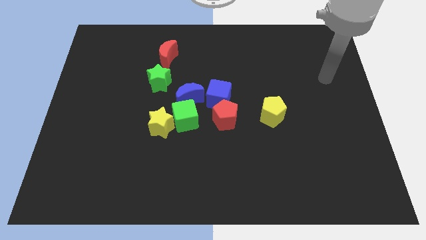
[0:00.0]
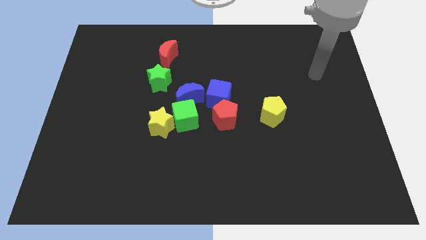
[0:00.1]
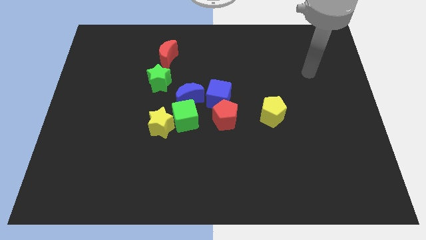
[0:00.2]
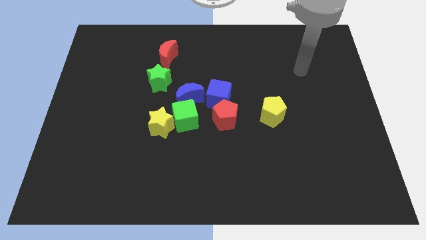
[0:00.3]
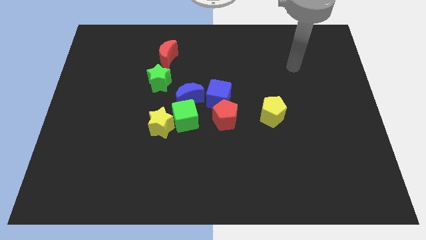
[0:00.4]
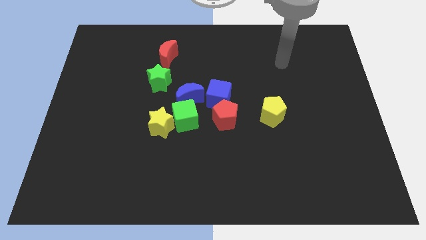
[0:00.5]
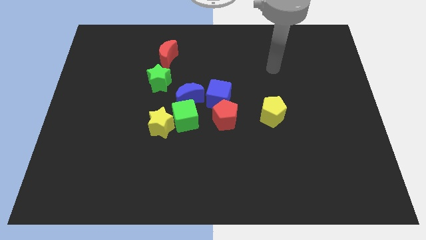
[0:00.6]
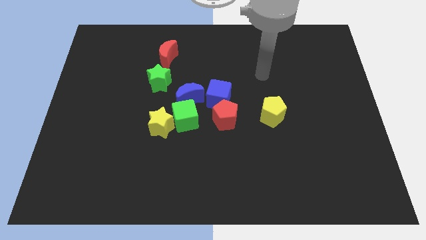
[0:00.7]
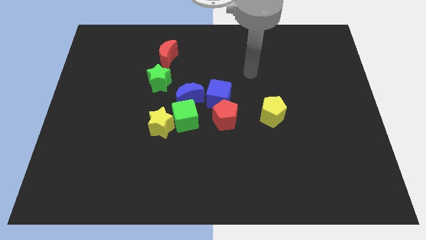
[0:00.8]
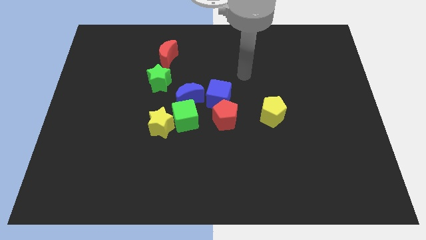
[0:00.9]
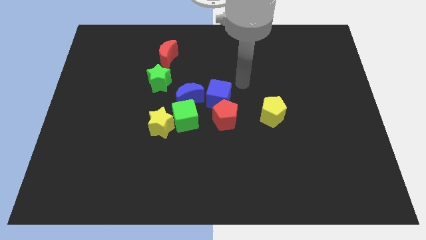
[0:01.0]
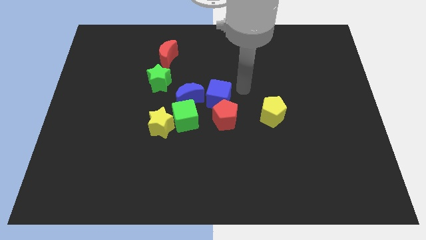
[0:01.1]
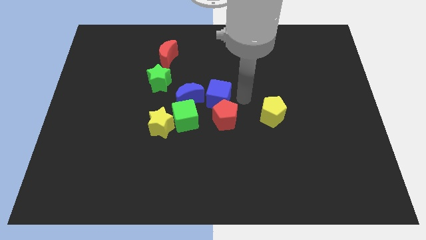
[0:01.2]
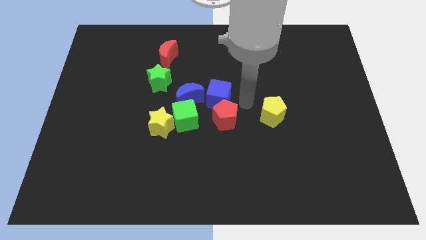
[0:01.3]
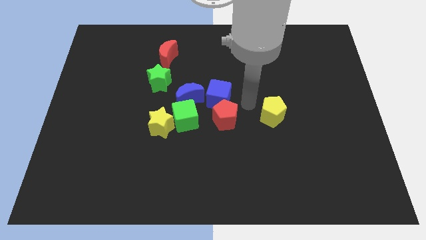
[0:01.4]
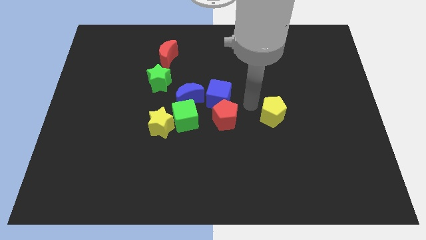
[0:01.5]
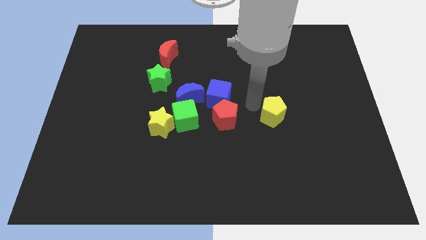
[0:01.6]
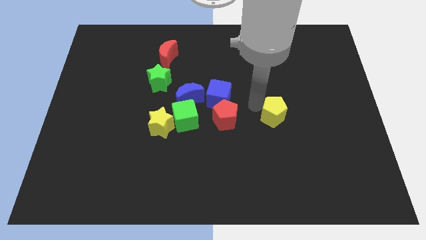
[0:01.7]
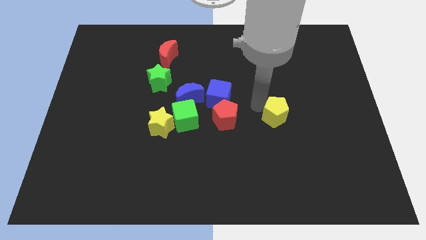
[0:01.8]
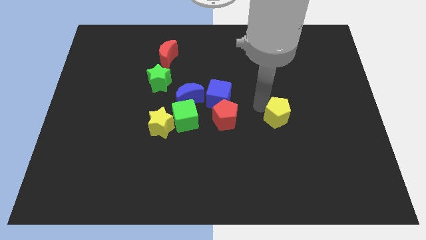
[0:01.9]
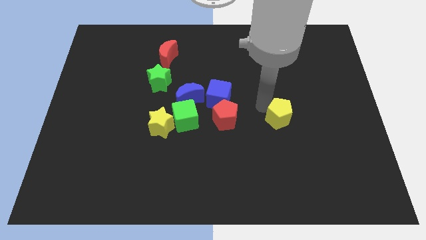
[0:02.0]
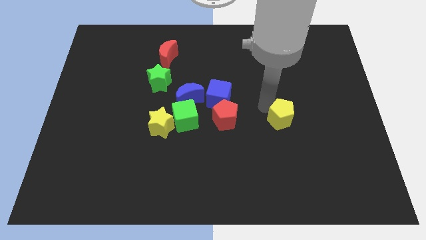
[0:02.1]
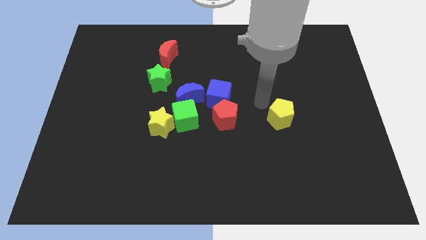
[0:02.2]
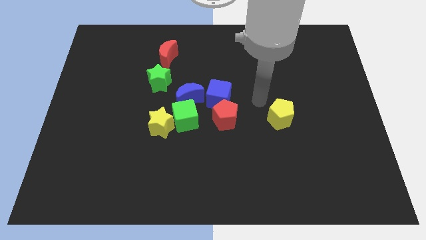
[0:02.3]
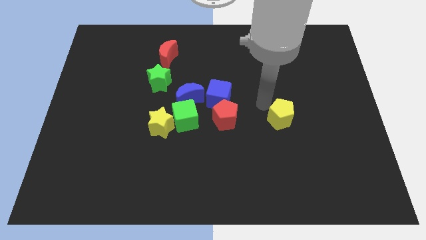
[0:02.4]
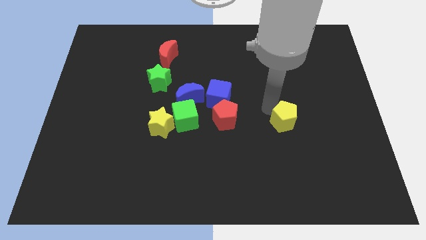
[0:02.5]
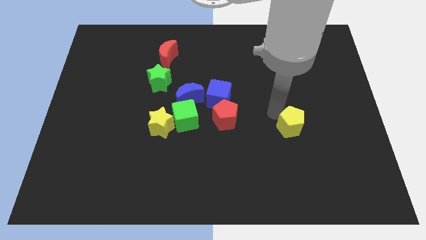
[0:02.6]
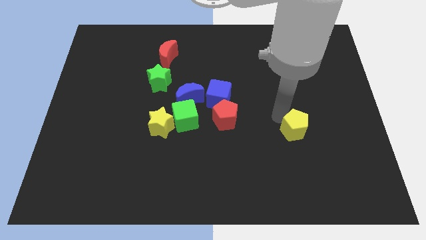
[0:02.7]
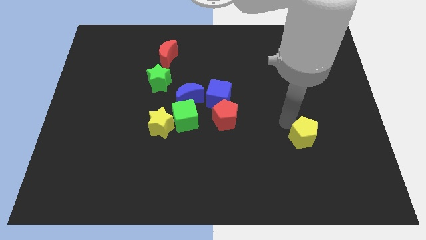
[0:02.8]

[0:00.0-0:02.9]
slightly push the yellow pentagon downwards and then right

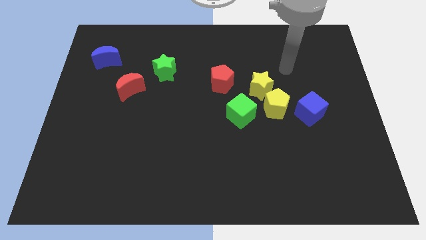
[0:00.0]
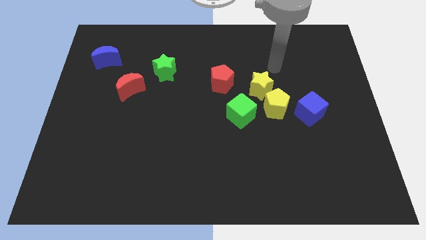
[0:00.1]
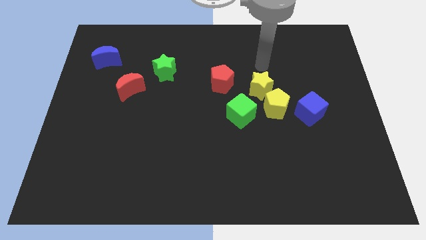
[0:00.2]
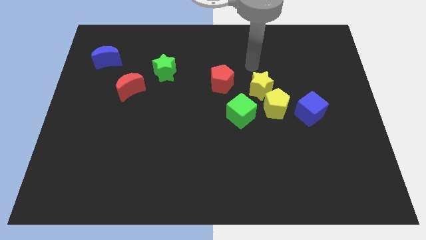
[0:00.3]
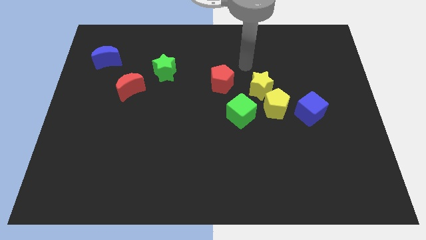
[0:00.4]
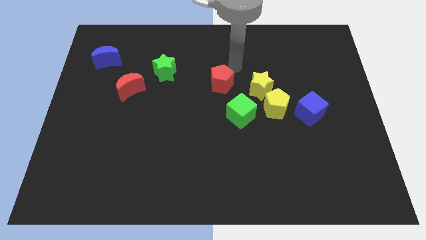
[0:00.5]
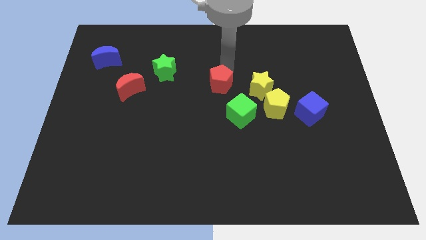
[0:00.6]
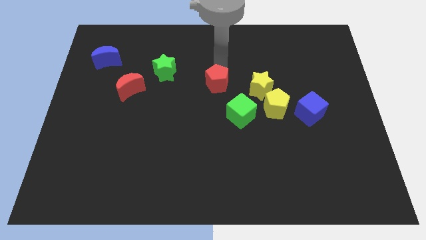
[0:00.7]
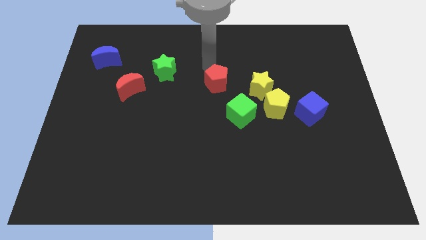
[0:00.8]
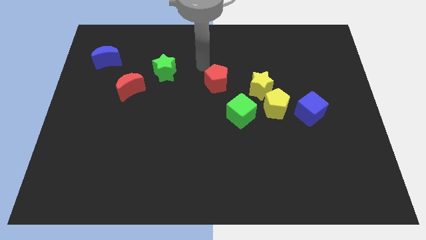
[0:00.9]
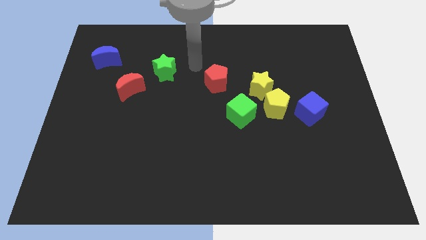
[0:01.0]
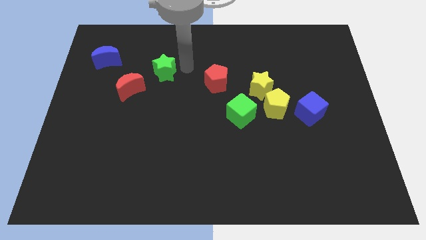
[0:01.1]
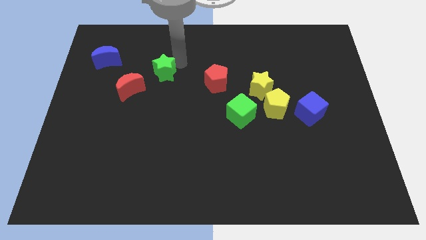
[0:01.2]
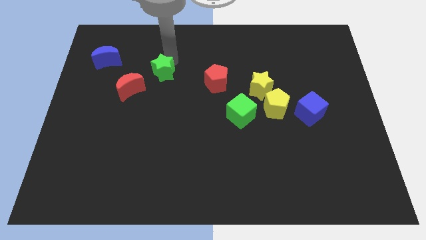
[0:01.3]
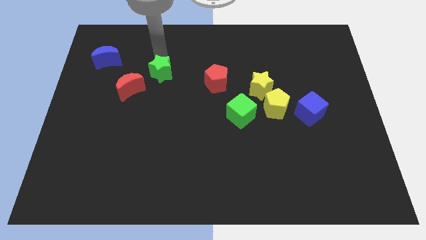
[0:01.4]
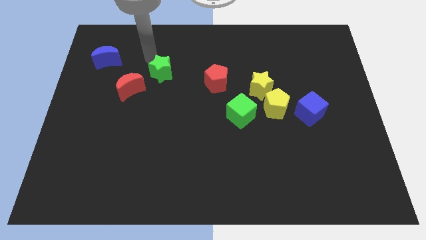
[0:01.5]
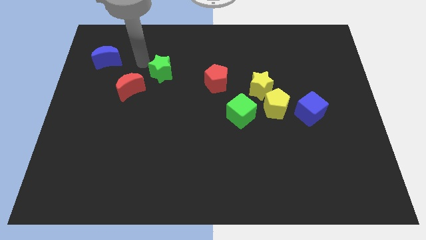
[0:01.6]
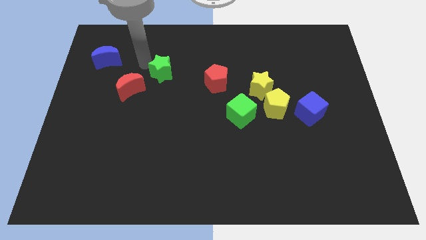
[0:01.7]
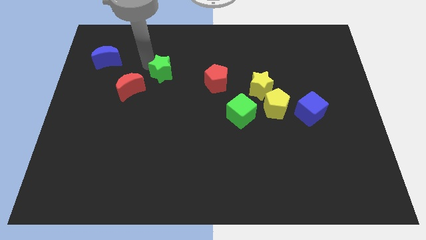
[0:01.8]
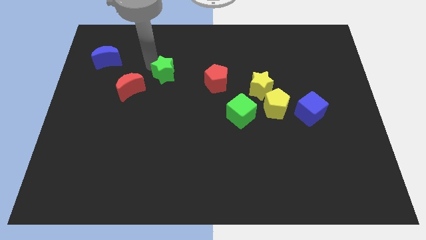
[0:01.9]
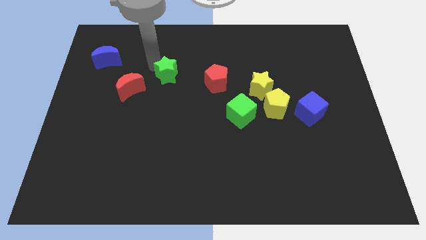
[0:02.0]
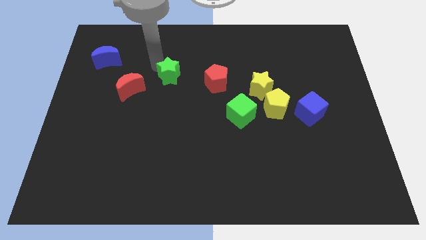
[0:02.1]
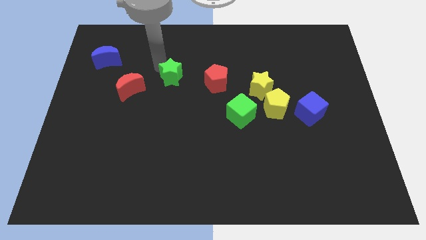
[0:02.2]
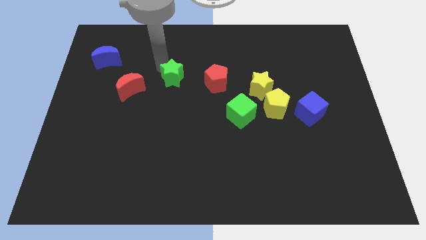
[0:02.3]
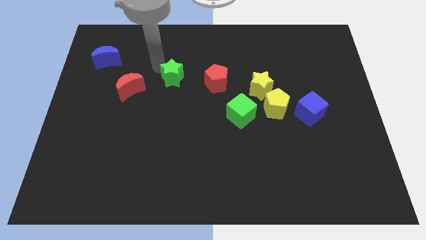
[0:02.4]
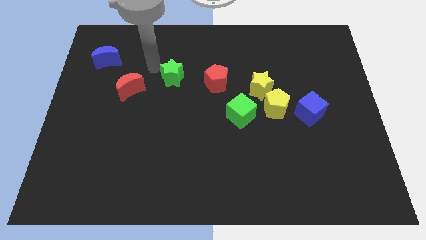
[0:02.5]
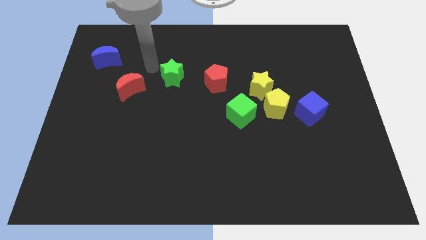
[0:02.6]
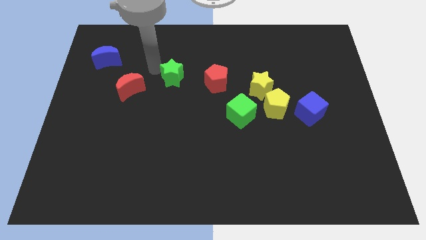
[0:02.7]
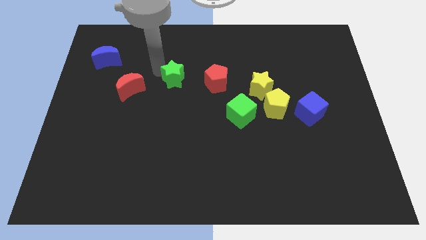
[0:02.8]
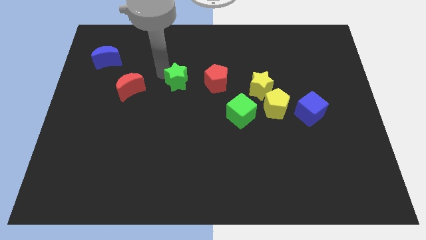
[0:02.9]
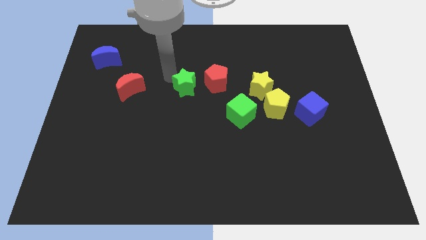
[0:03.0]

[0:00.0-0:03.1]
slide the green star slightly down and then right

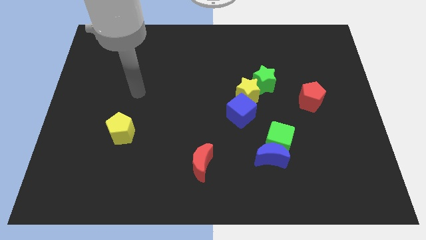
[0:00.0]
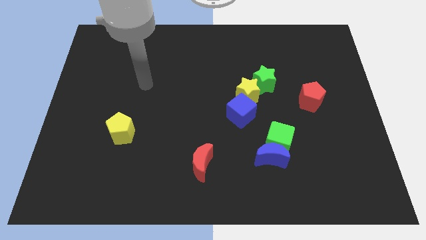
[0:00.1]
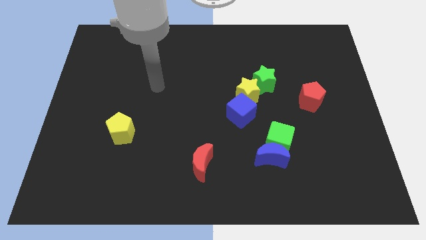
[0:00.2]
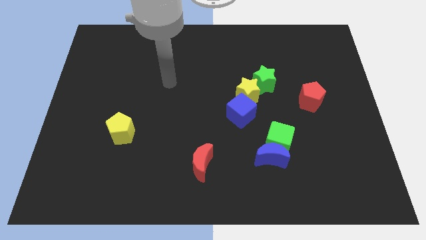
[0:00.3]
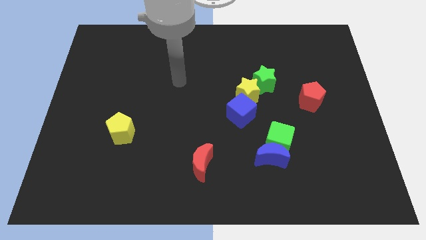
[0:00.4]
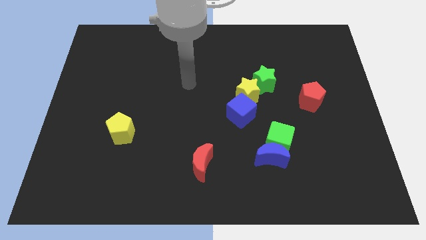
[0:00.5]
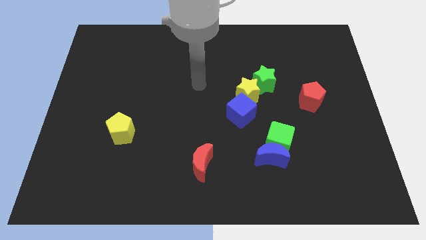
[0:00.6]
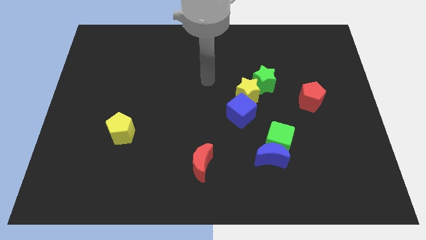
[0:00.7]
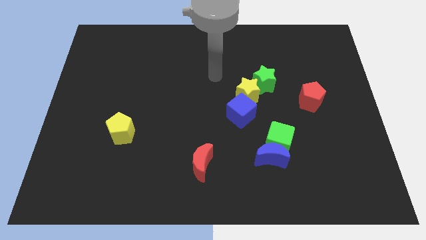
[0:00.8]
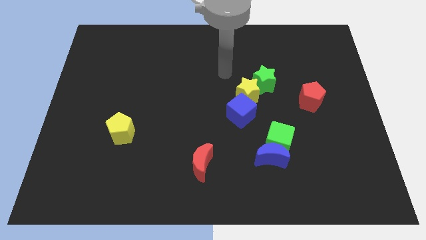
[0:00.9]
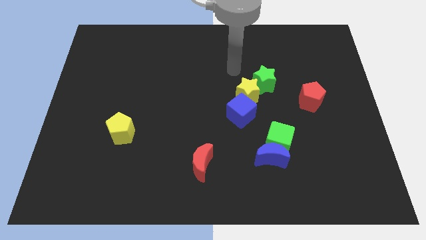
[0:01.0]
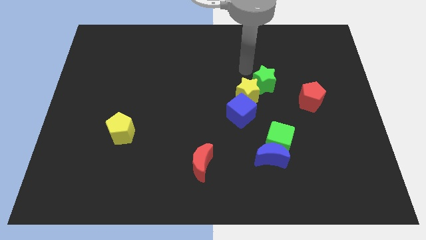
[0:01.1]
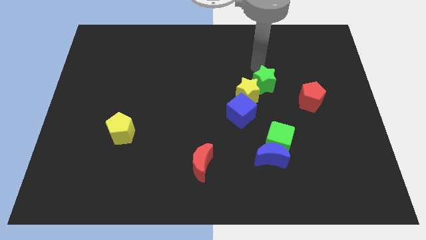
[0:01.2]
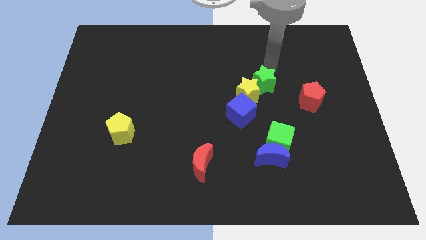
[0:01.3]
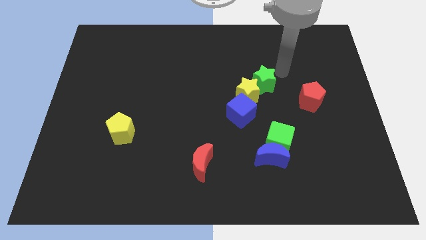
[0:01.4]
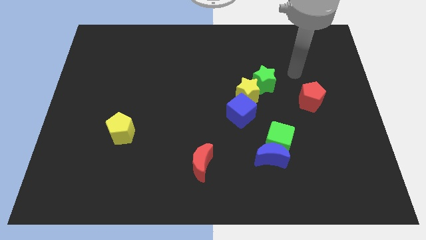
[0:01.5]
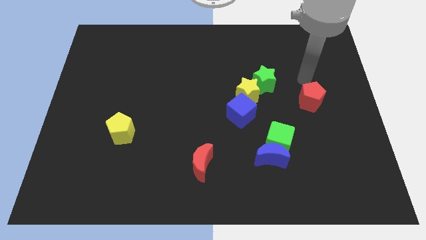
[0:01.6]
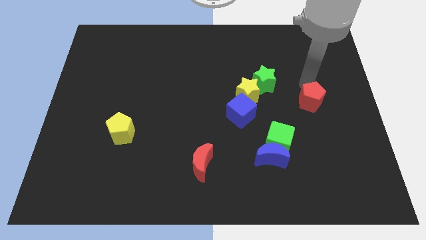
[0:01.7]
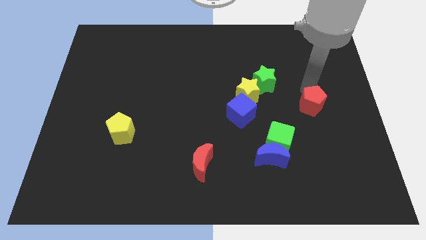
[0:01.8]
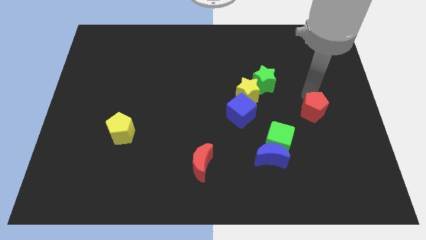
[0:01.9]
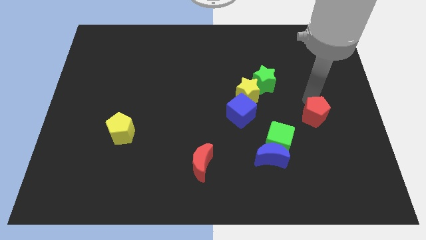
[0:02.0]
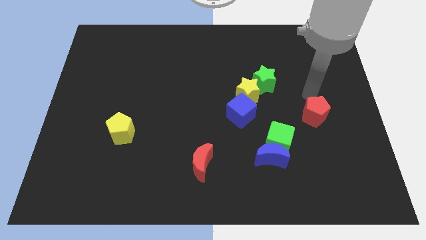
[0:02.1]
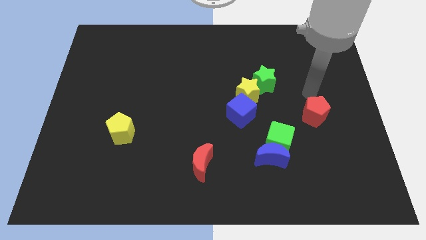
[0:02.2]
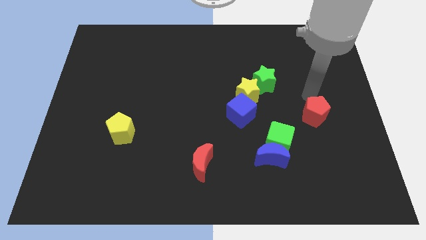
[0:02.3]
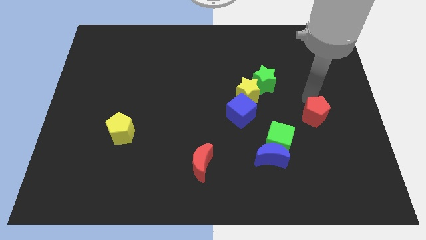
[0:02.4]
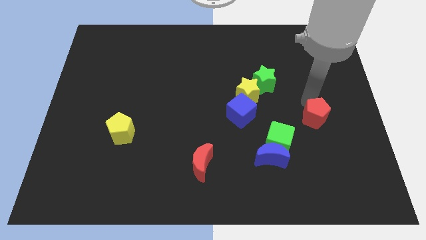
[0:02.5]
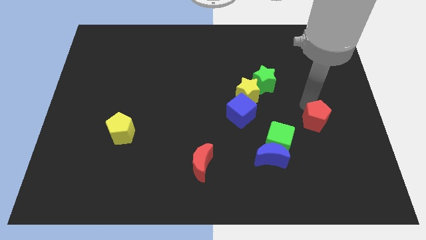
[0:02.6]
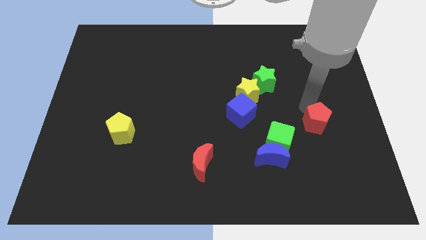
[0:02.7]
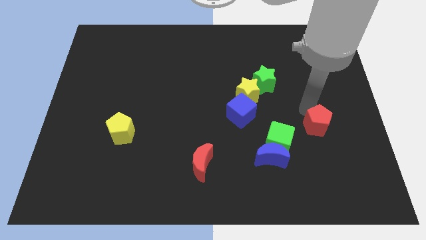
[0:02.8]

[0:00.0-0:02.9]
slightly move the red pentagon downwards
